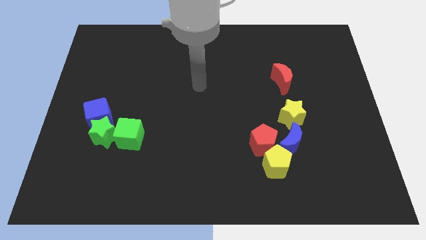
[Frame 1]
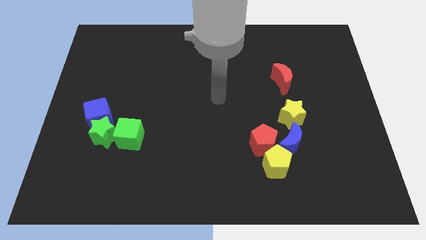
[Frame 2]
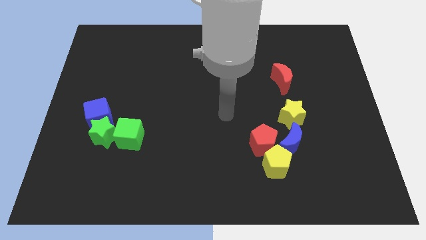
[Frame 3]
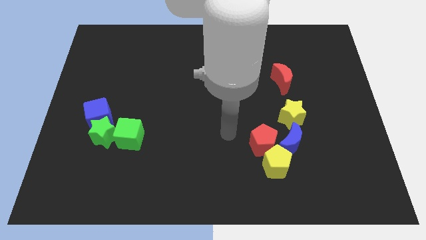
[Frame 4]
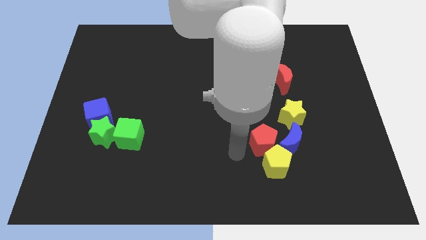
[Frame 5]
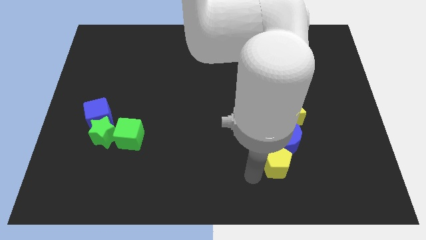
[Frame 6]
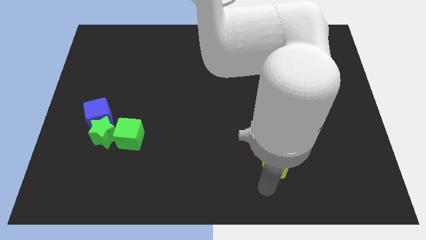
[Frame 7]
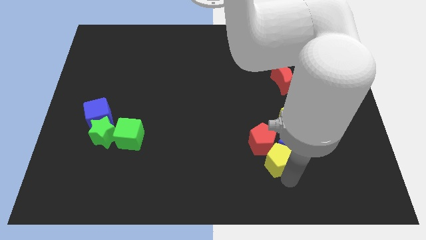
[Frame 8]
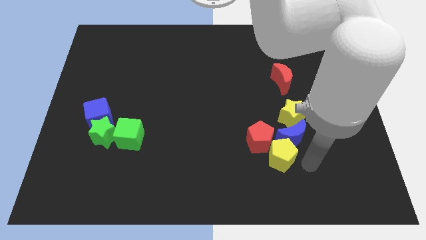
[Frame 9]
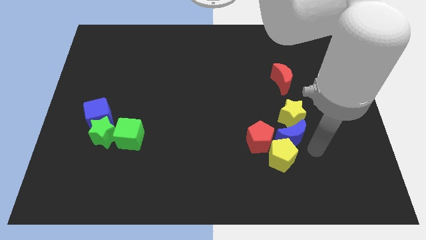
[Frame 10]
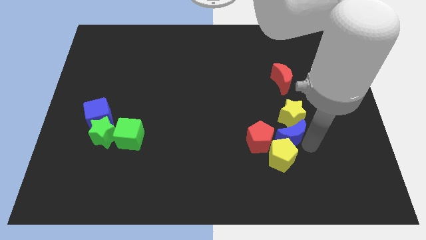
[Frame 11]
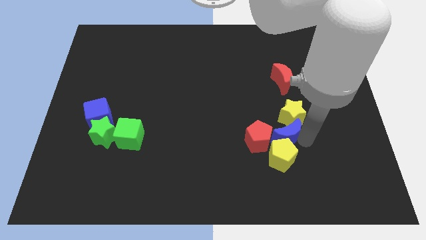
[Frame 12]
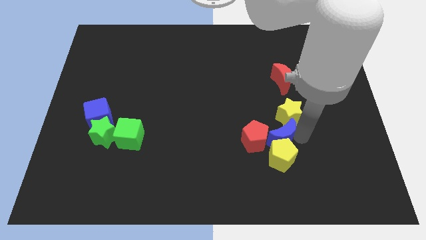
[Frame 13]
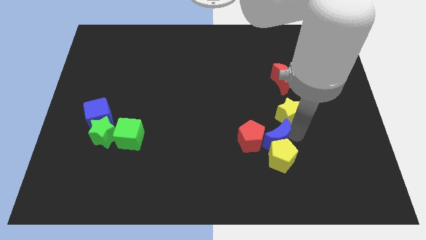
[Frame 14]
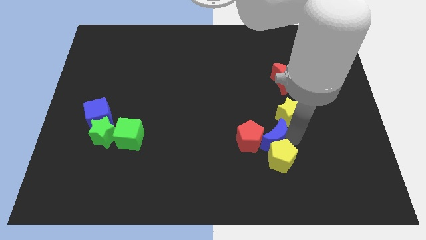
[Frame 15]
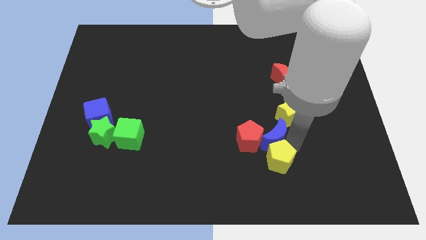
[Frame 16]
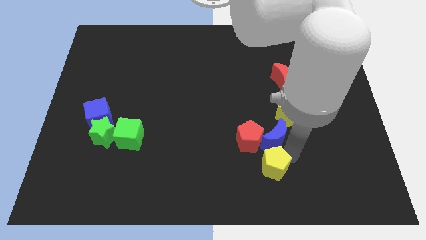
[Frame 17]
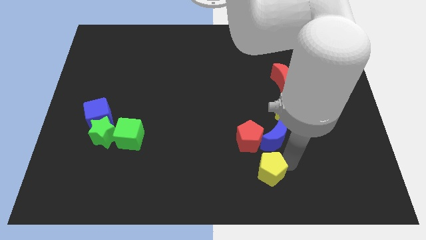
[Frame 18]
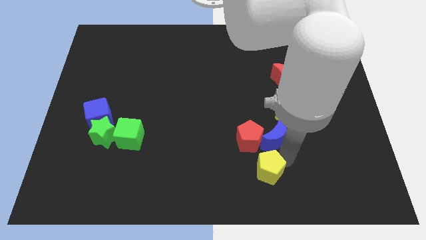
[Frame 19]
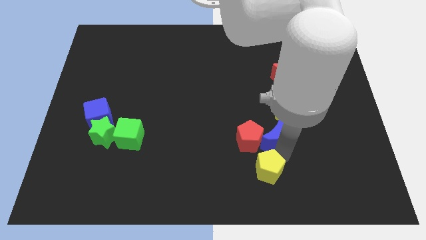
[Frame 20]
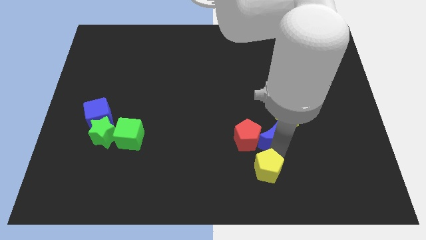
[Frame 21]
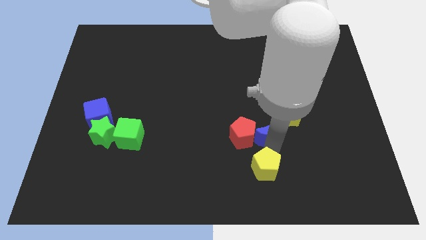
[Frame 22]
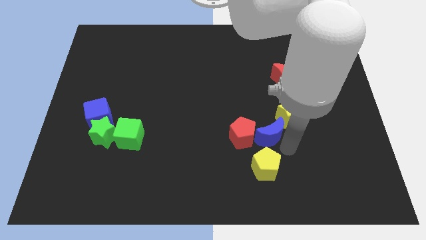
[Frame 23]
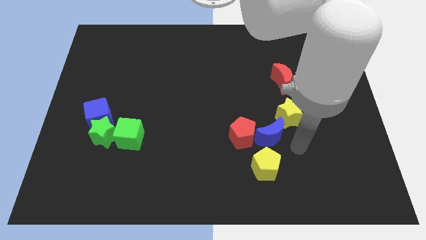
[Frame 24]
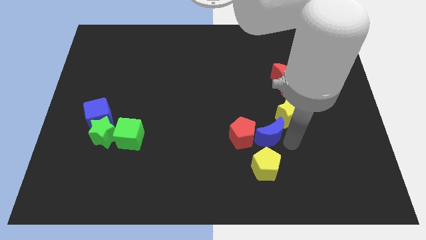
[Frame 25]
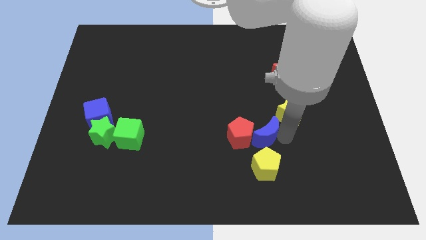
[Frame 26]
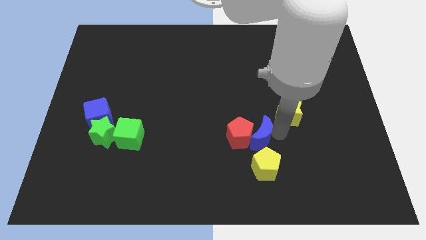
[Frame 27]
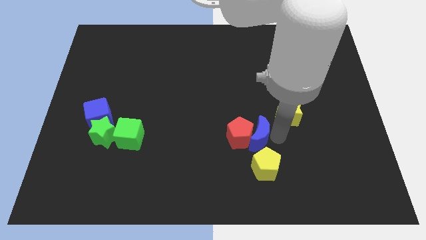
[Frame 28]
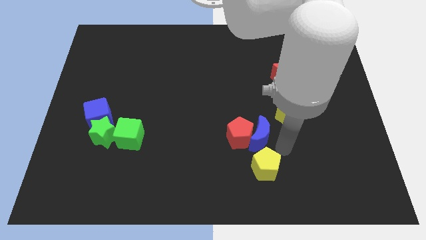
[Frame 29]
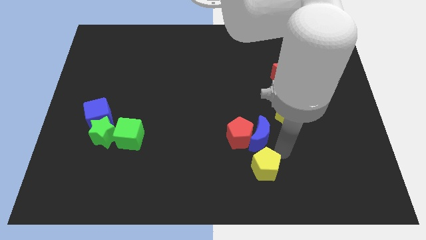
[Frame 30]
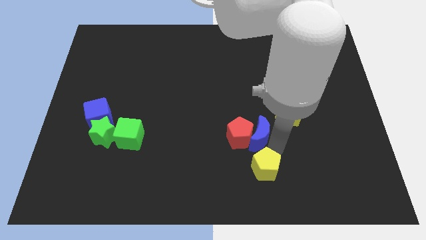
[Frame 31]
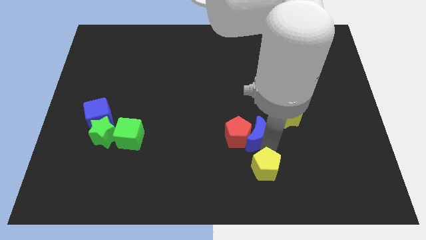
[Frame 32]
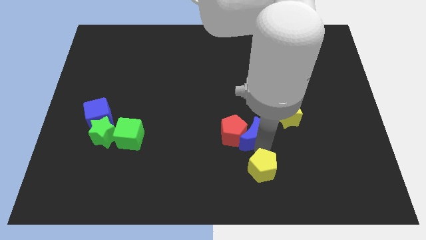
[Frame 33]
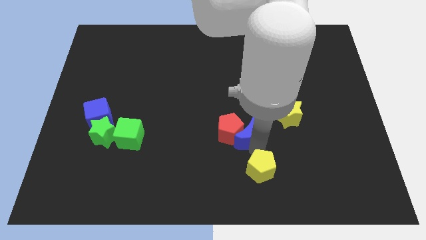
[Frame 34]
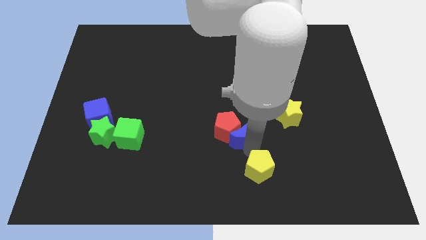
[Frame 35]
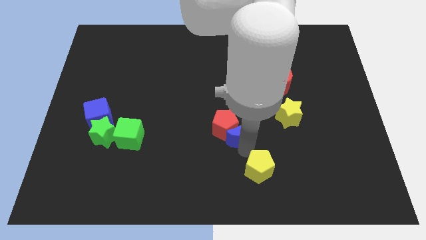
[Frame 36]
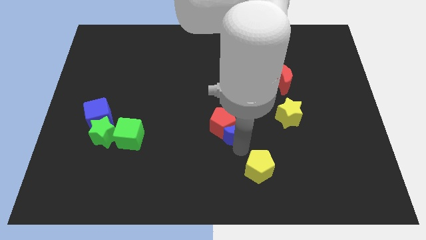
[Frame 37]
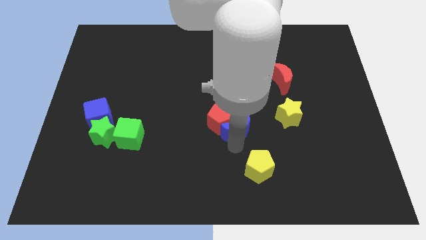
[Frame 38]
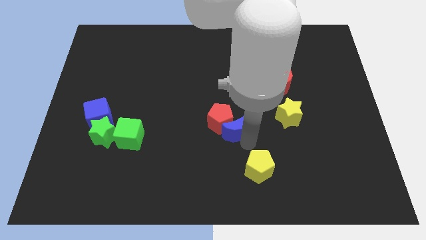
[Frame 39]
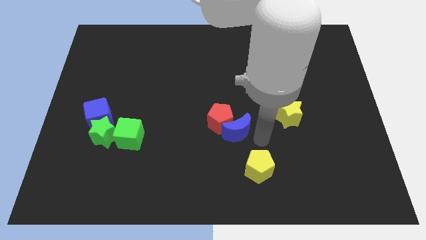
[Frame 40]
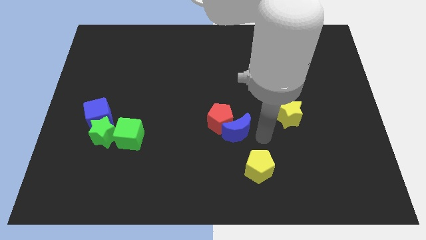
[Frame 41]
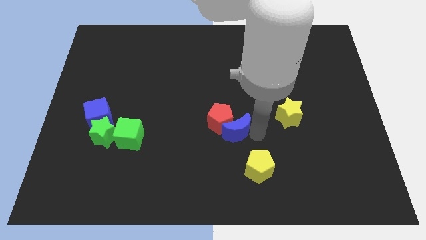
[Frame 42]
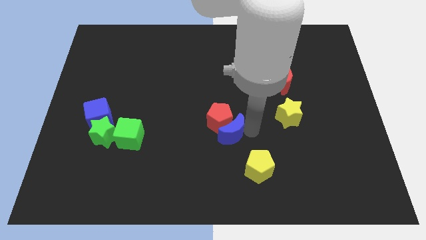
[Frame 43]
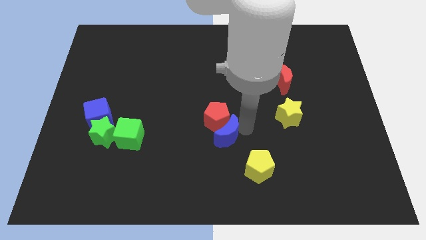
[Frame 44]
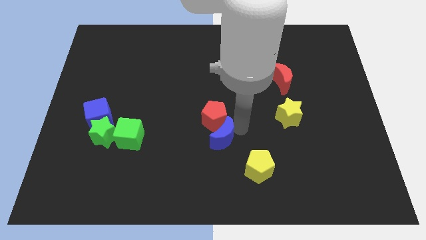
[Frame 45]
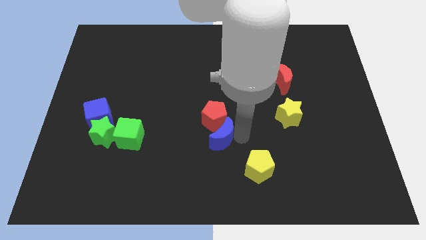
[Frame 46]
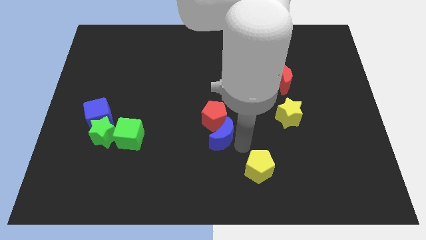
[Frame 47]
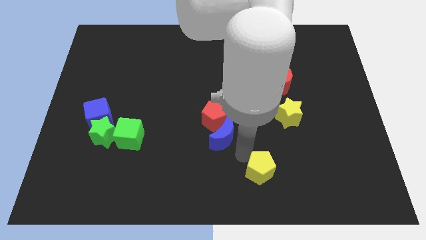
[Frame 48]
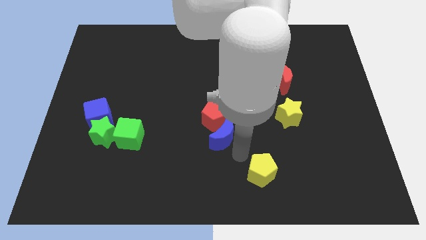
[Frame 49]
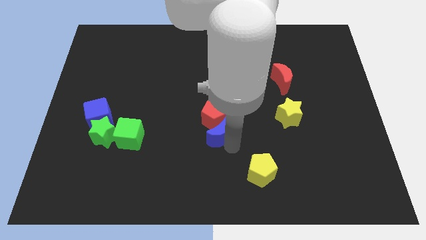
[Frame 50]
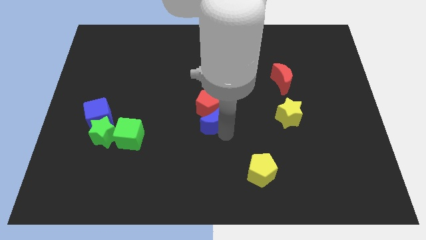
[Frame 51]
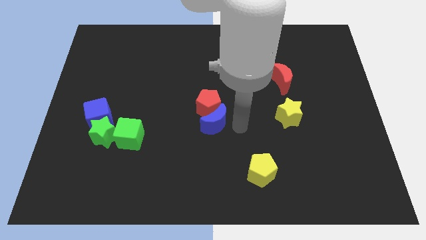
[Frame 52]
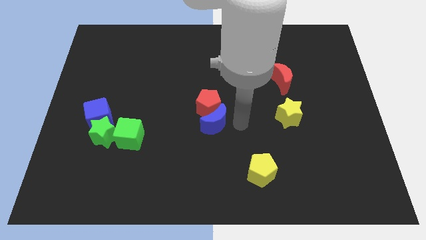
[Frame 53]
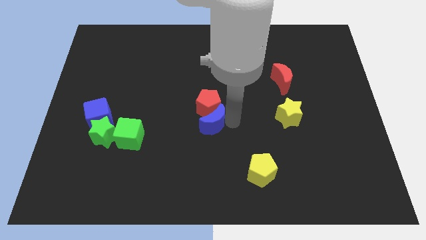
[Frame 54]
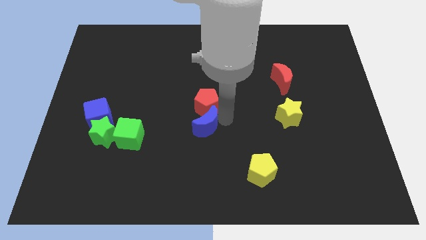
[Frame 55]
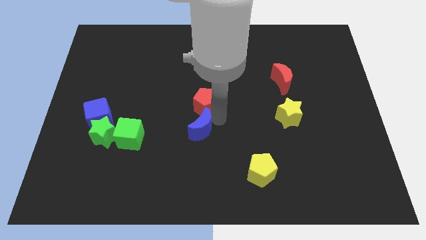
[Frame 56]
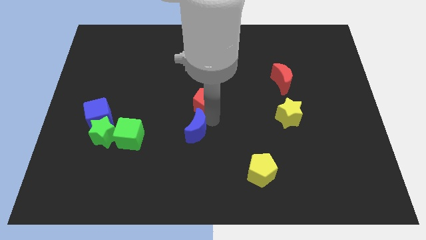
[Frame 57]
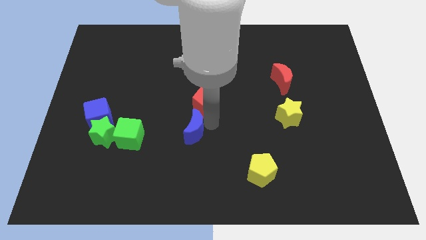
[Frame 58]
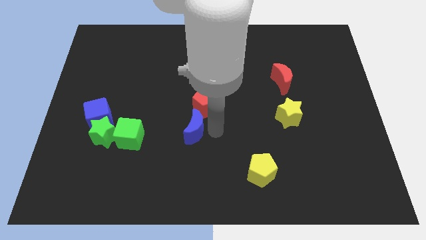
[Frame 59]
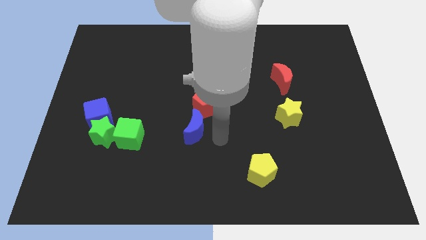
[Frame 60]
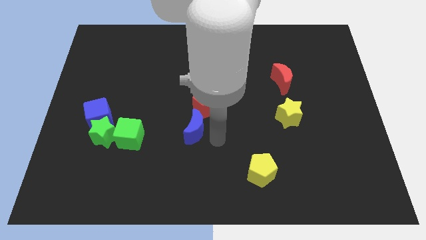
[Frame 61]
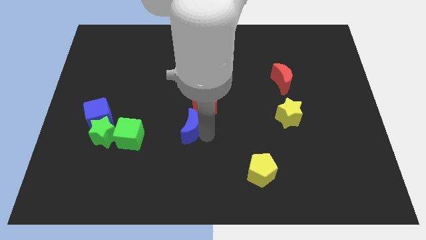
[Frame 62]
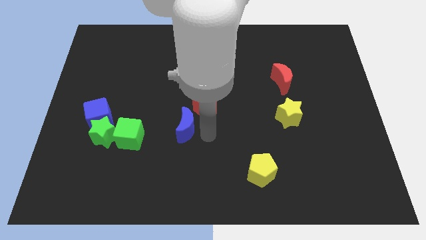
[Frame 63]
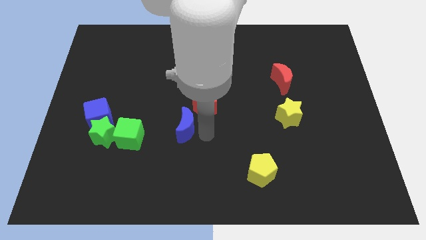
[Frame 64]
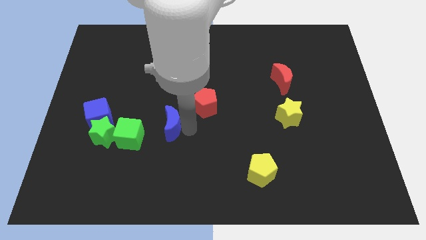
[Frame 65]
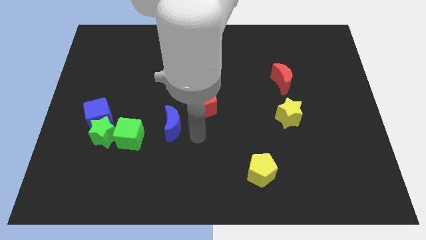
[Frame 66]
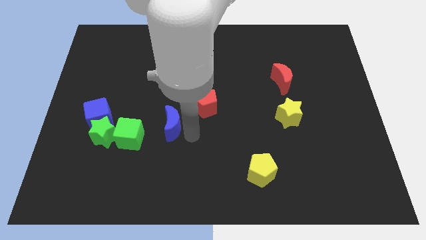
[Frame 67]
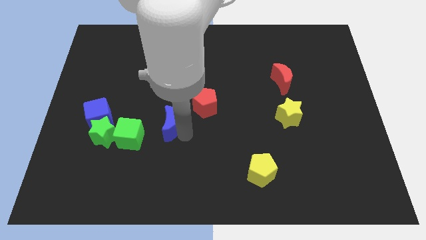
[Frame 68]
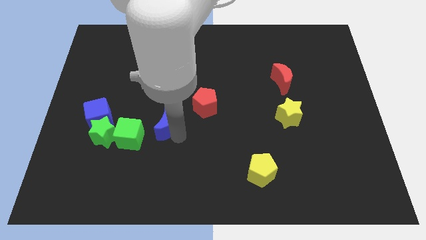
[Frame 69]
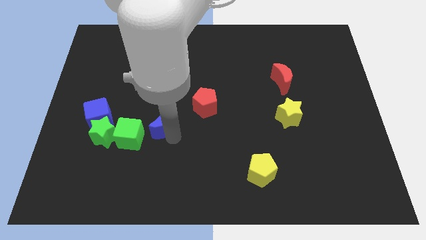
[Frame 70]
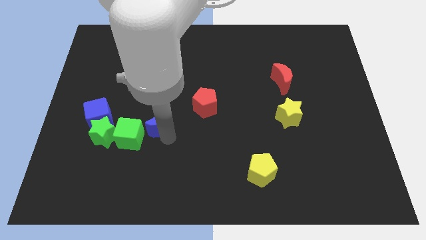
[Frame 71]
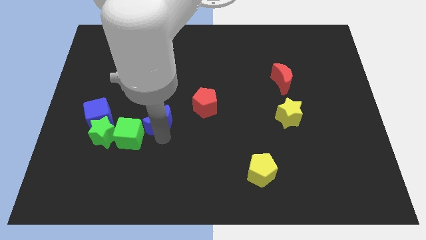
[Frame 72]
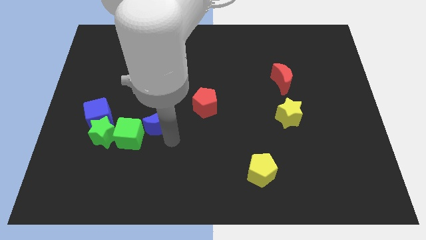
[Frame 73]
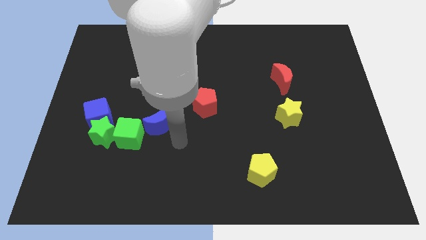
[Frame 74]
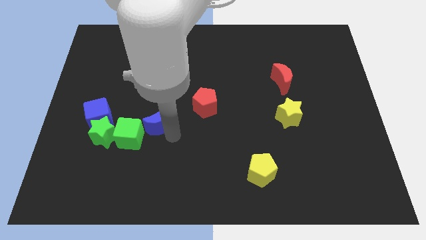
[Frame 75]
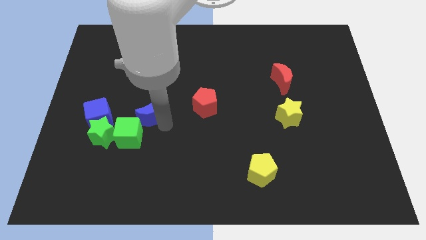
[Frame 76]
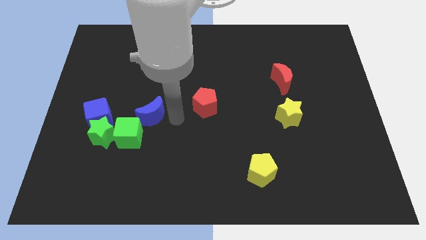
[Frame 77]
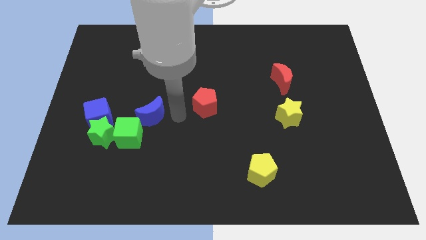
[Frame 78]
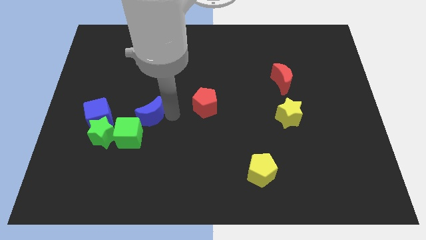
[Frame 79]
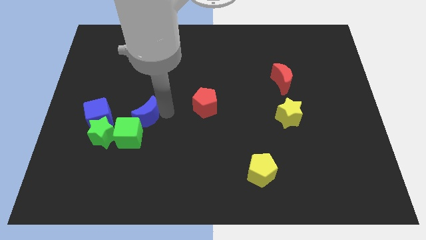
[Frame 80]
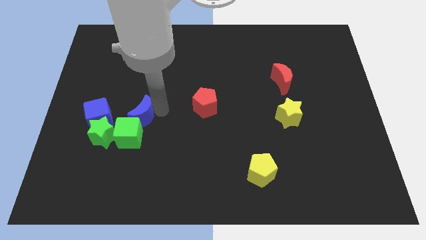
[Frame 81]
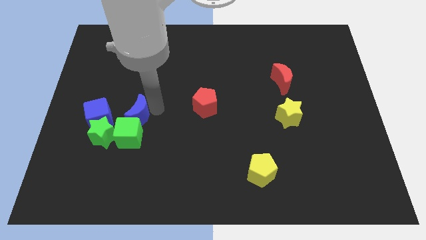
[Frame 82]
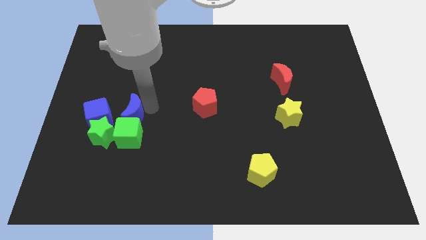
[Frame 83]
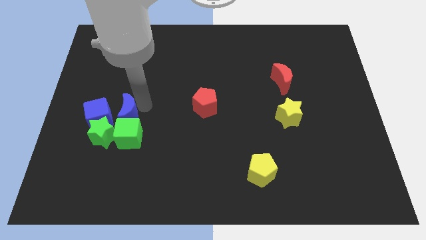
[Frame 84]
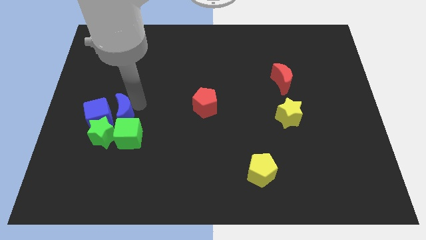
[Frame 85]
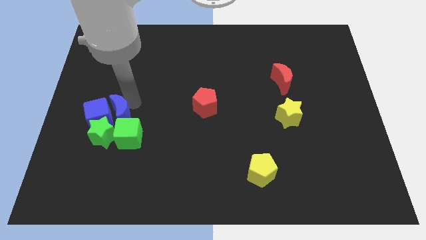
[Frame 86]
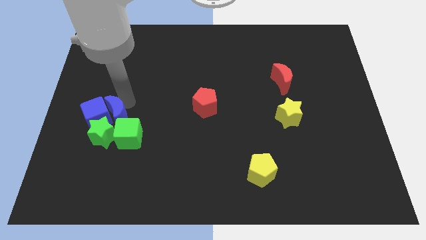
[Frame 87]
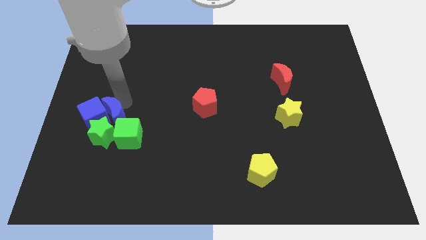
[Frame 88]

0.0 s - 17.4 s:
move the blue moon close to the green star
